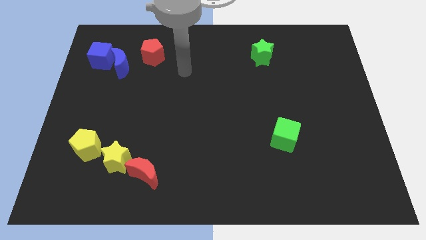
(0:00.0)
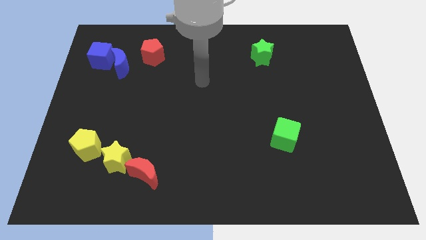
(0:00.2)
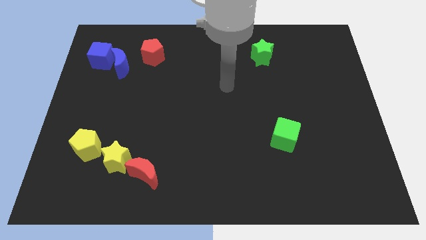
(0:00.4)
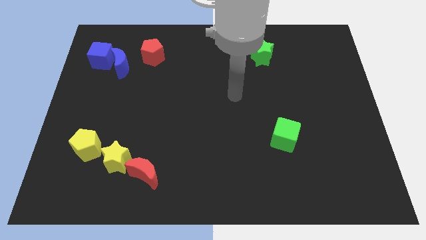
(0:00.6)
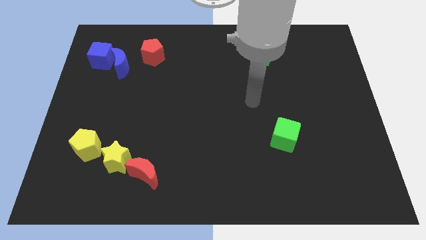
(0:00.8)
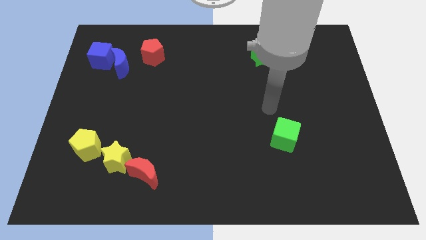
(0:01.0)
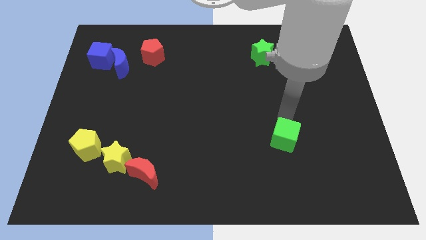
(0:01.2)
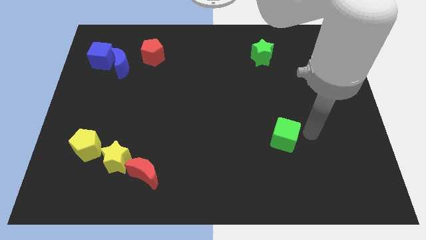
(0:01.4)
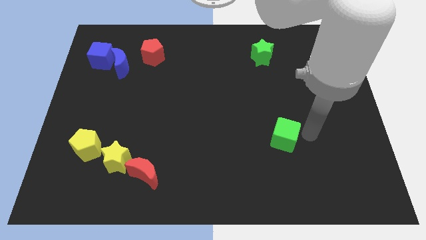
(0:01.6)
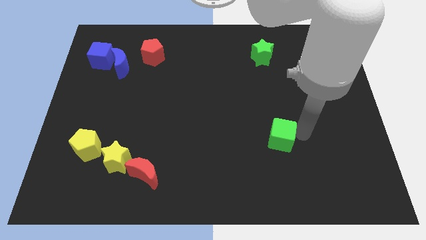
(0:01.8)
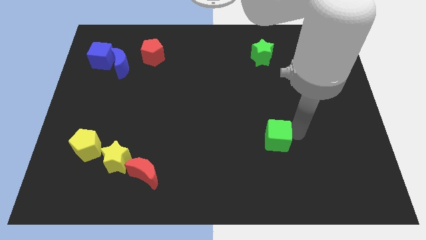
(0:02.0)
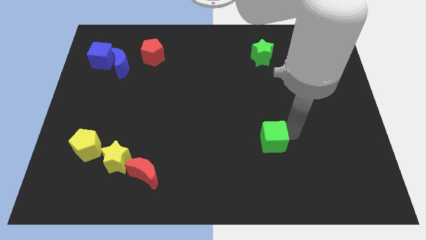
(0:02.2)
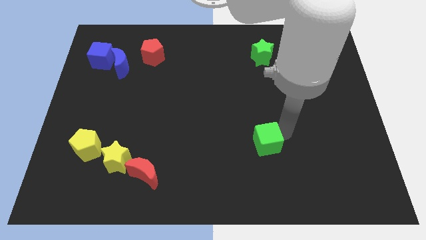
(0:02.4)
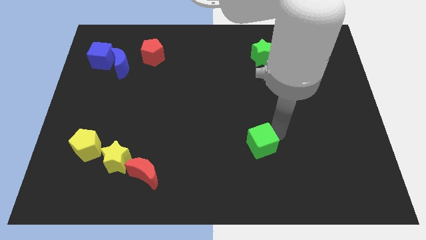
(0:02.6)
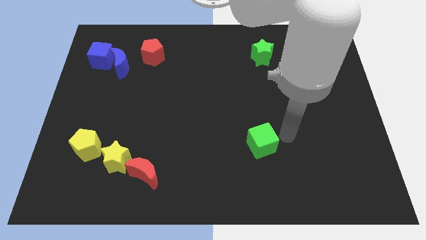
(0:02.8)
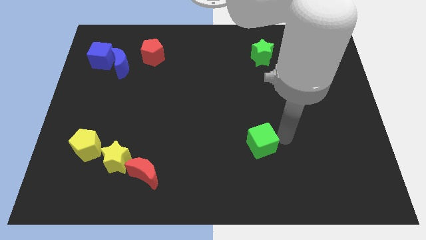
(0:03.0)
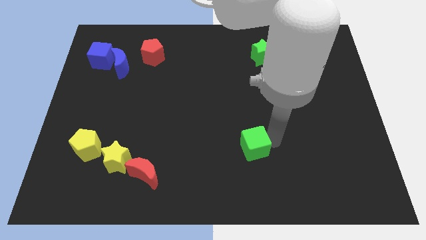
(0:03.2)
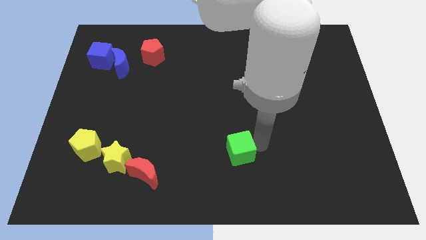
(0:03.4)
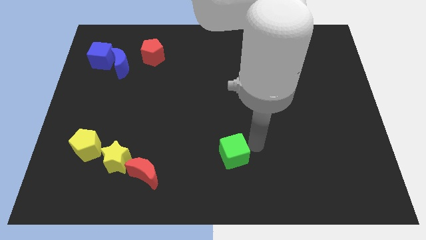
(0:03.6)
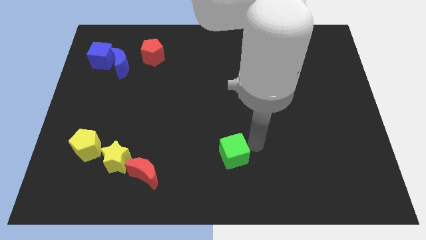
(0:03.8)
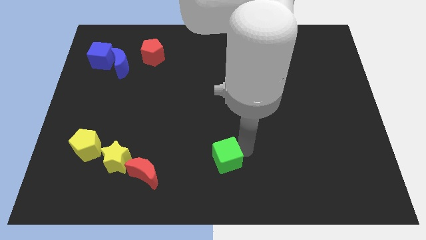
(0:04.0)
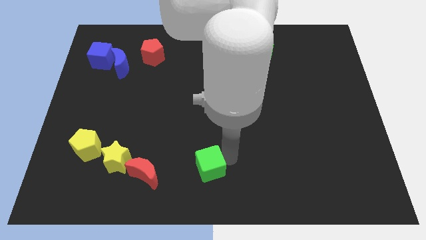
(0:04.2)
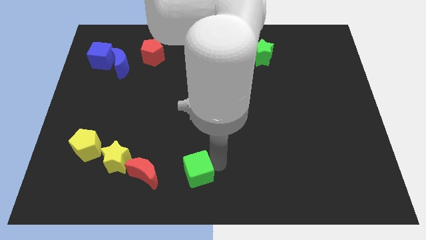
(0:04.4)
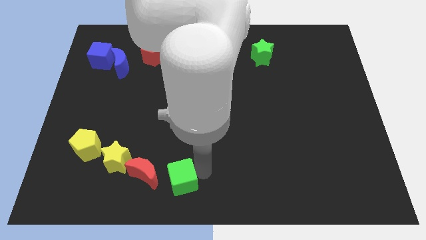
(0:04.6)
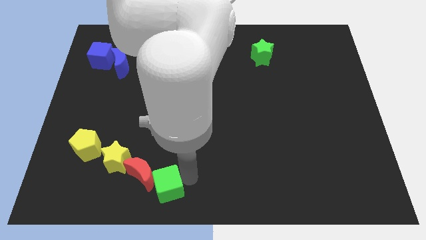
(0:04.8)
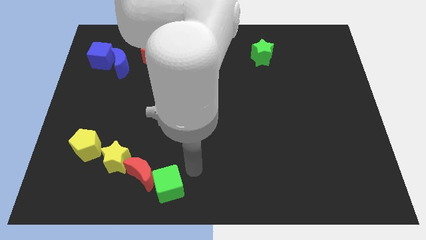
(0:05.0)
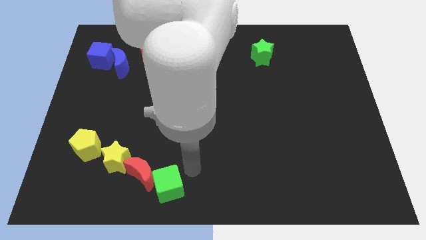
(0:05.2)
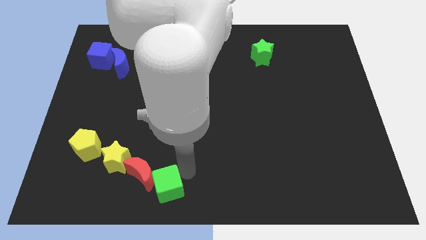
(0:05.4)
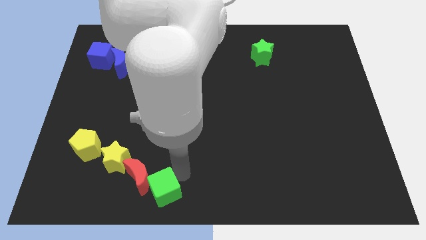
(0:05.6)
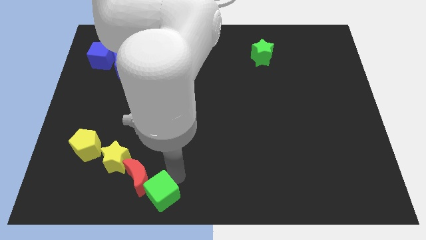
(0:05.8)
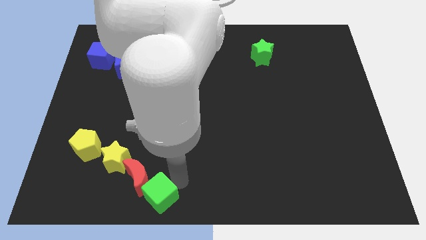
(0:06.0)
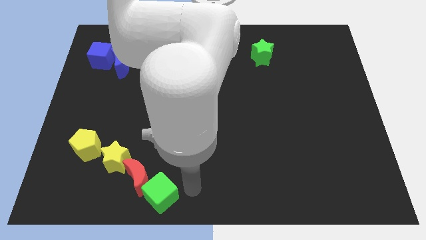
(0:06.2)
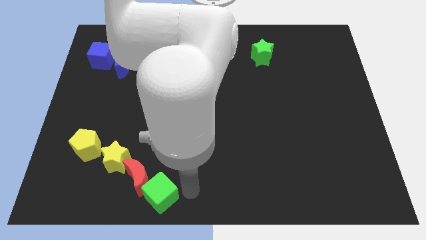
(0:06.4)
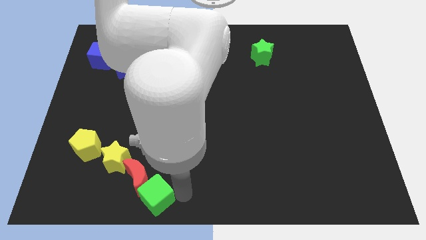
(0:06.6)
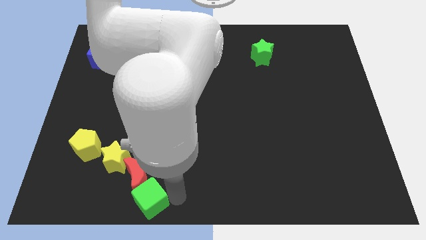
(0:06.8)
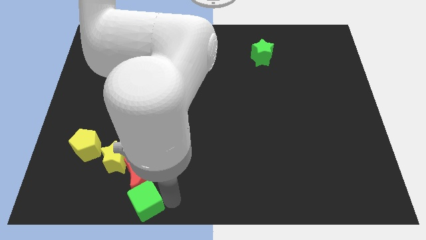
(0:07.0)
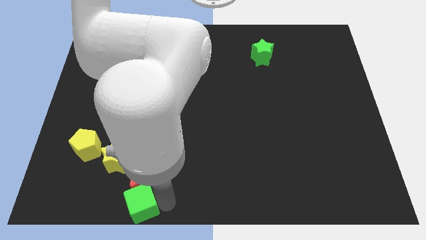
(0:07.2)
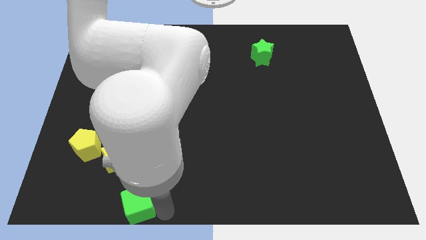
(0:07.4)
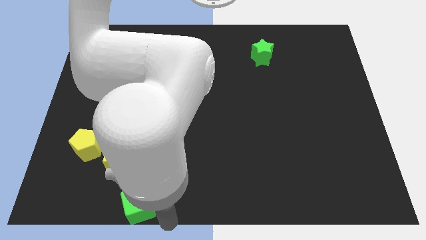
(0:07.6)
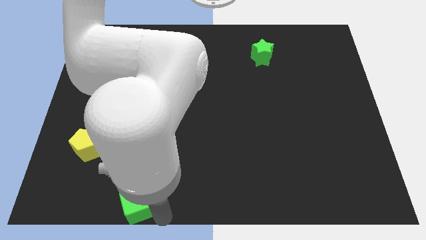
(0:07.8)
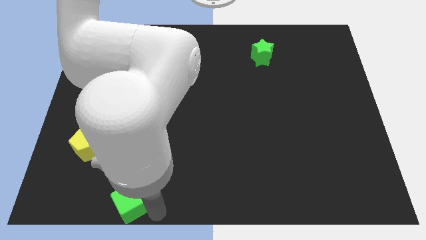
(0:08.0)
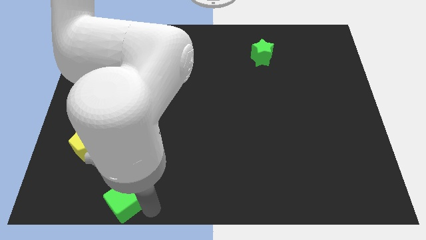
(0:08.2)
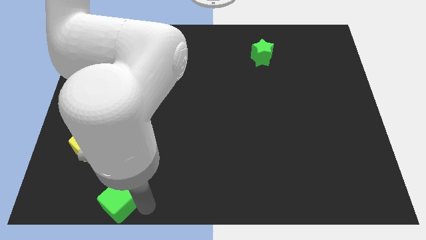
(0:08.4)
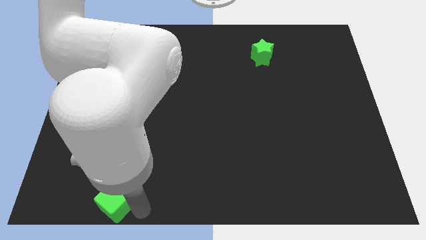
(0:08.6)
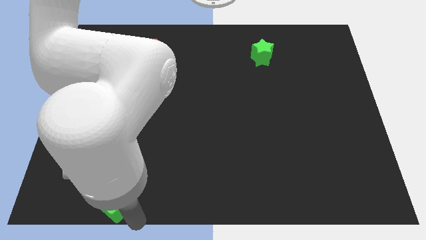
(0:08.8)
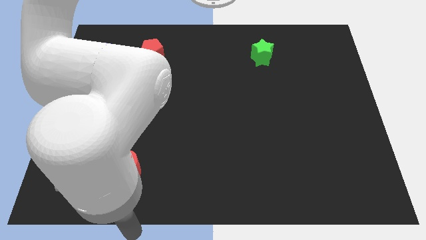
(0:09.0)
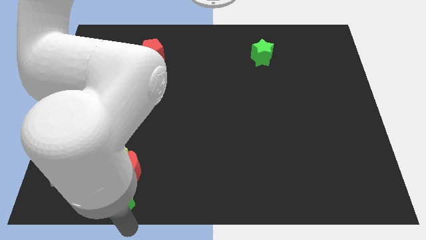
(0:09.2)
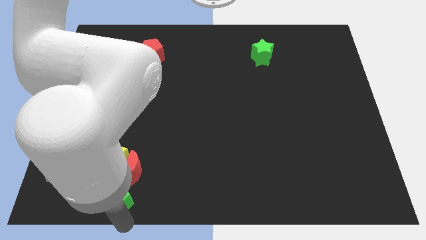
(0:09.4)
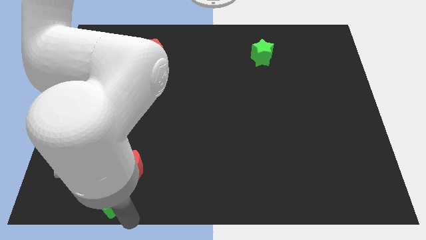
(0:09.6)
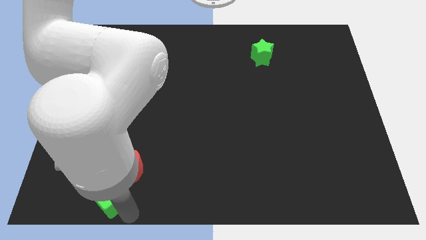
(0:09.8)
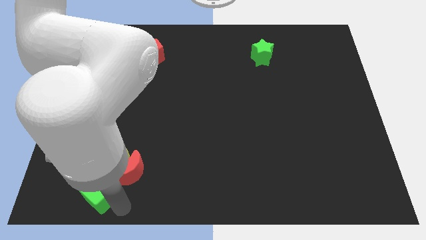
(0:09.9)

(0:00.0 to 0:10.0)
put the green cube to the left of the red moon

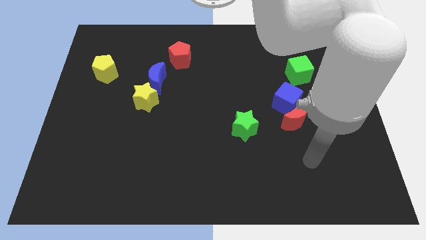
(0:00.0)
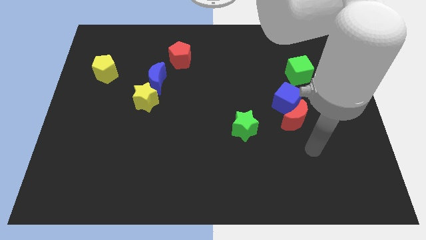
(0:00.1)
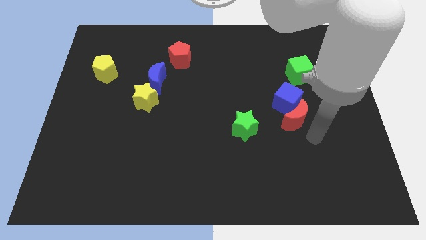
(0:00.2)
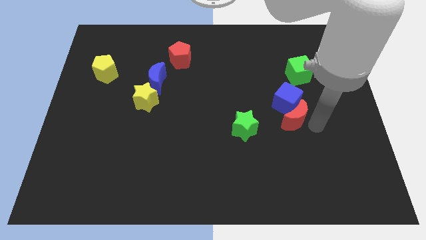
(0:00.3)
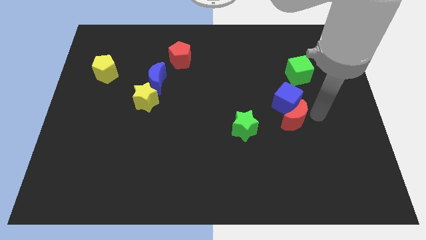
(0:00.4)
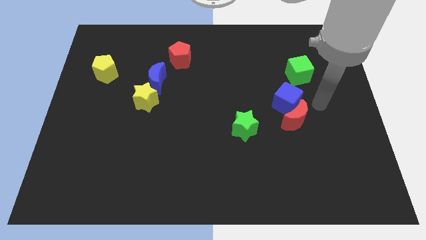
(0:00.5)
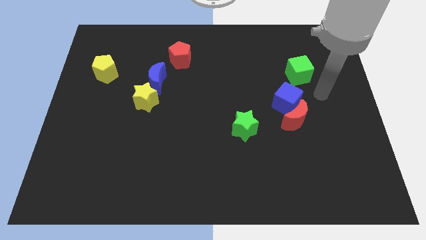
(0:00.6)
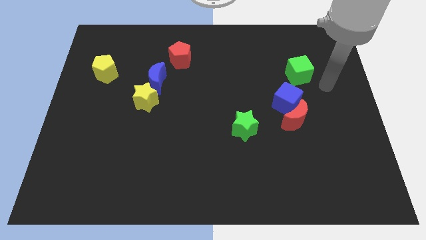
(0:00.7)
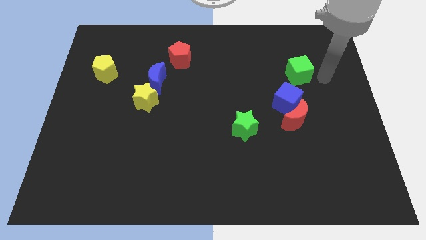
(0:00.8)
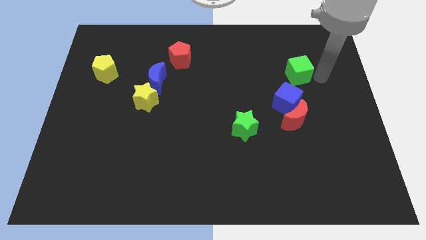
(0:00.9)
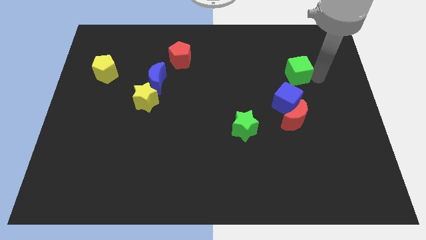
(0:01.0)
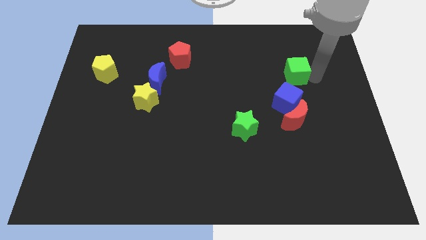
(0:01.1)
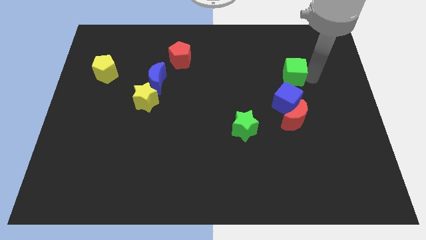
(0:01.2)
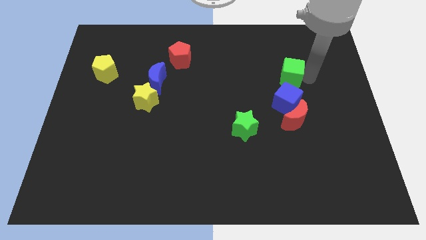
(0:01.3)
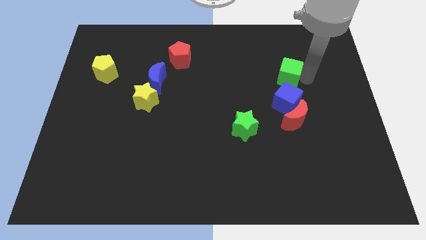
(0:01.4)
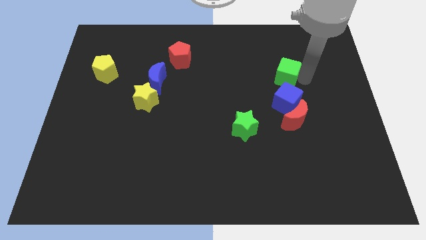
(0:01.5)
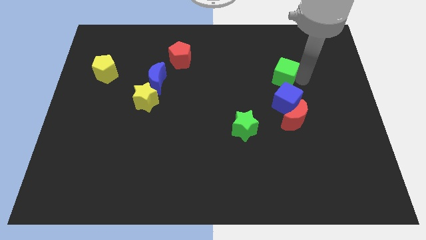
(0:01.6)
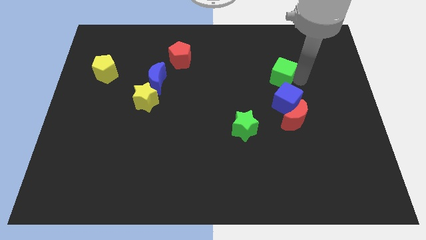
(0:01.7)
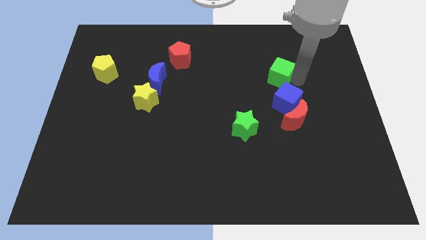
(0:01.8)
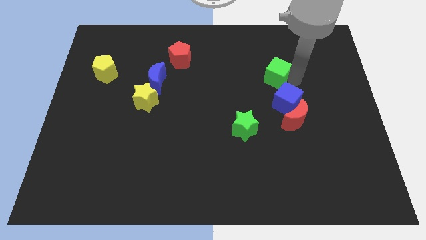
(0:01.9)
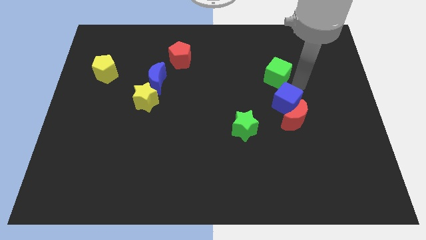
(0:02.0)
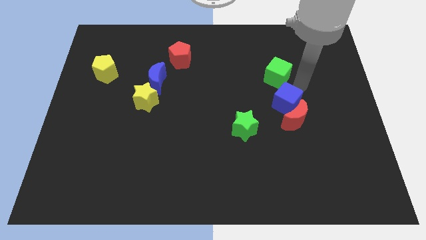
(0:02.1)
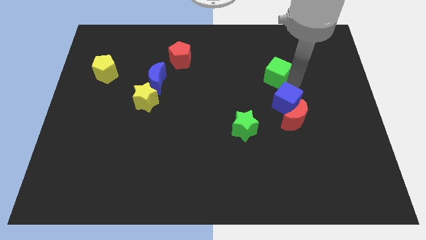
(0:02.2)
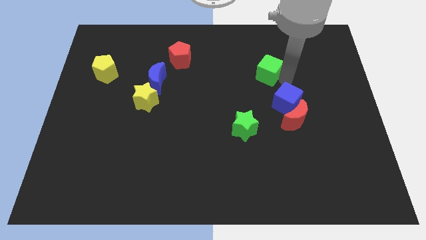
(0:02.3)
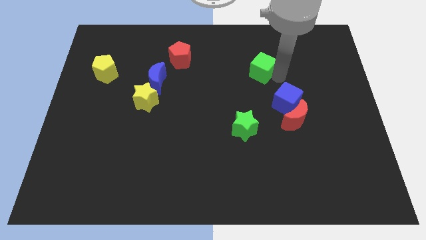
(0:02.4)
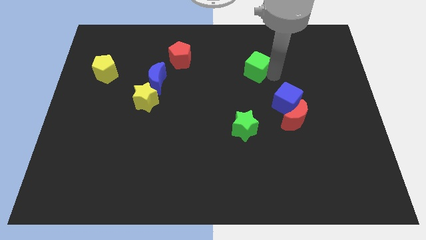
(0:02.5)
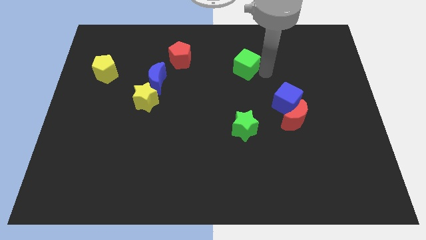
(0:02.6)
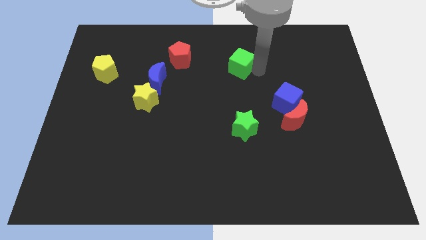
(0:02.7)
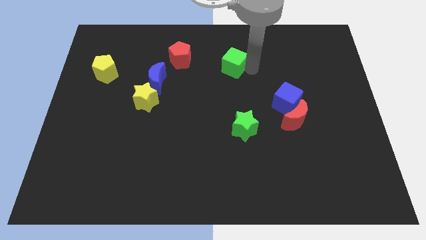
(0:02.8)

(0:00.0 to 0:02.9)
put the green cube just right of the red pentagon

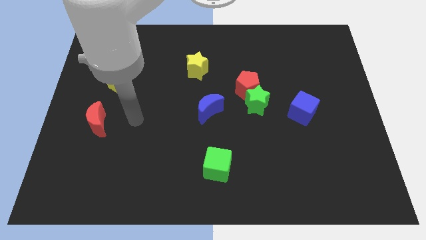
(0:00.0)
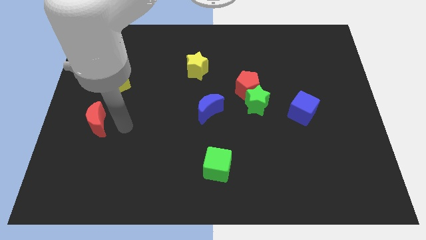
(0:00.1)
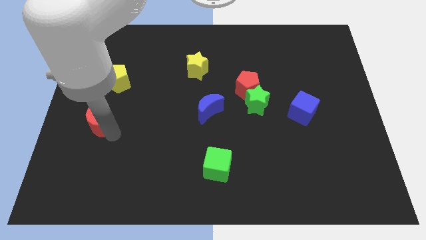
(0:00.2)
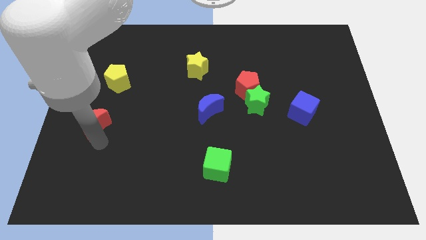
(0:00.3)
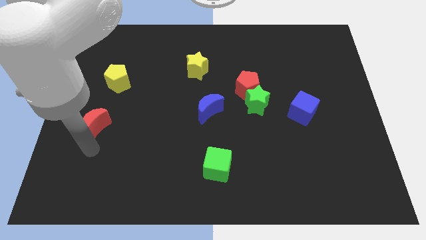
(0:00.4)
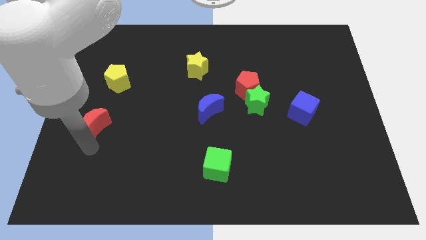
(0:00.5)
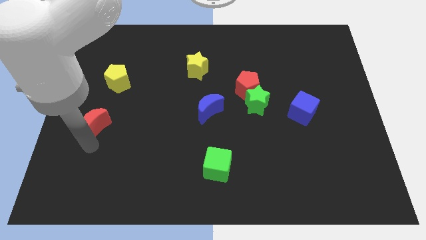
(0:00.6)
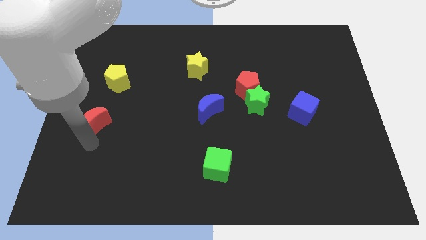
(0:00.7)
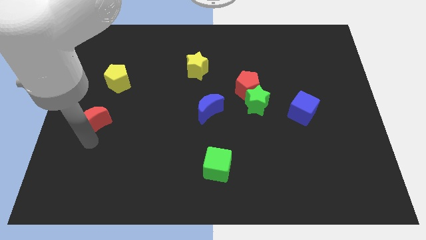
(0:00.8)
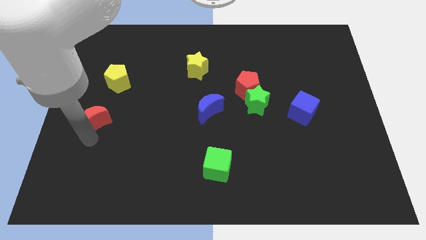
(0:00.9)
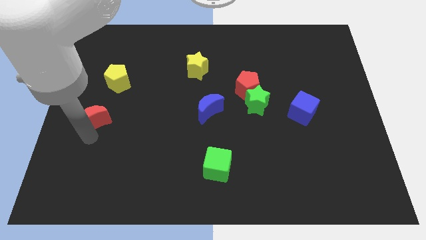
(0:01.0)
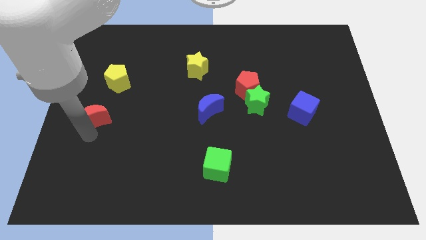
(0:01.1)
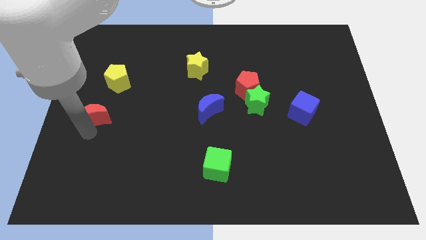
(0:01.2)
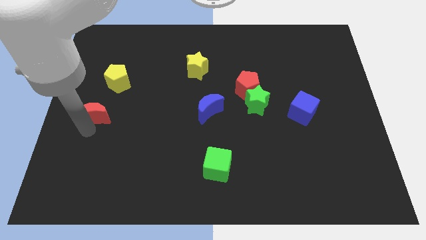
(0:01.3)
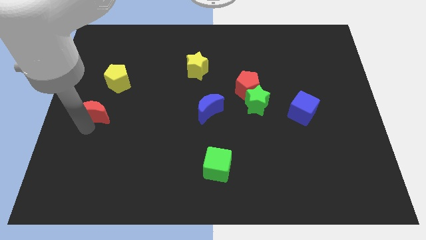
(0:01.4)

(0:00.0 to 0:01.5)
slide the red moon to the bottom left side of the yellow pentagon
